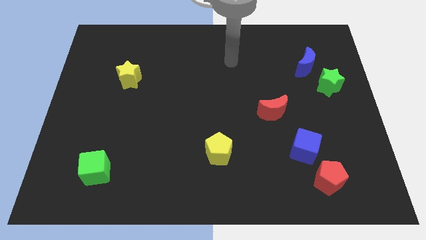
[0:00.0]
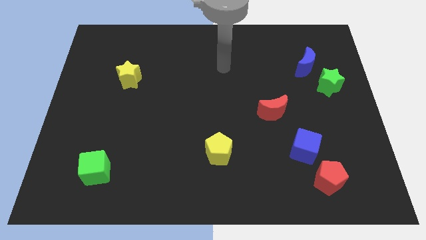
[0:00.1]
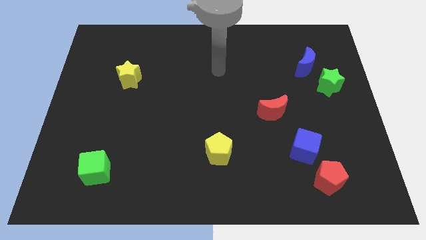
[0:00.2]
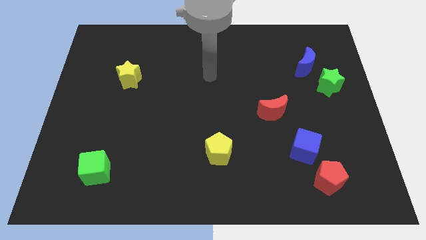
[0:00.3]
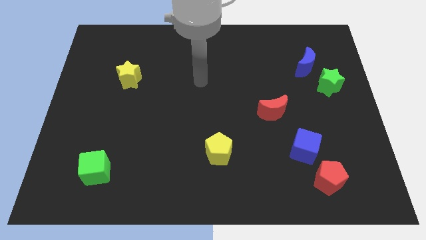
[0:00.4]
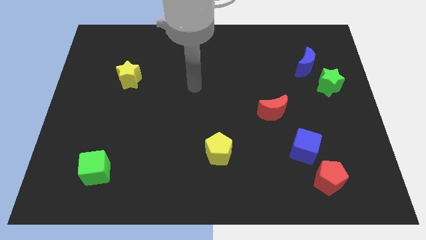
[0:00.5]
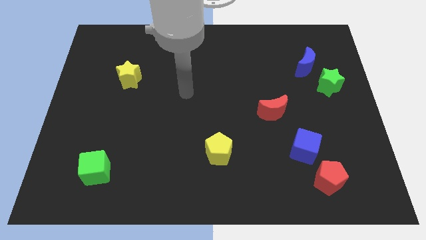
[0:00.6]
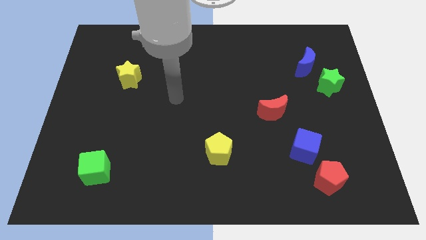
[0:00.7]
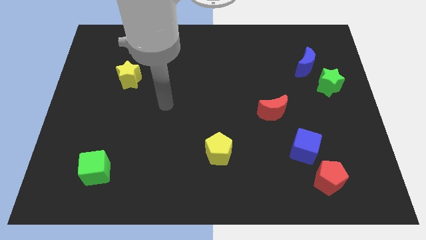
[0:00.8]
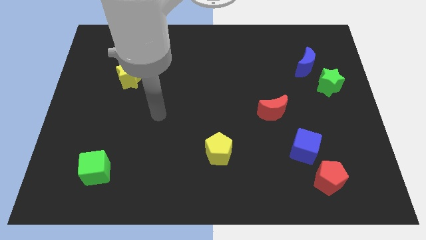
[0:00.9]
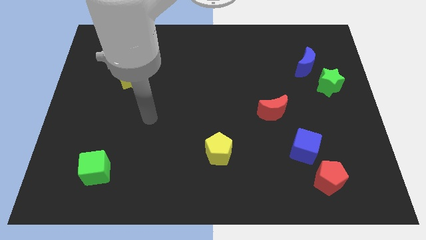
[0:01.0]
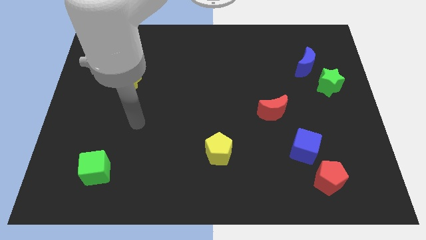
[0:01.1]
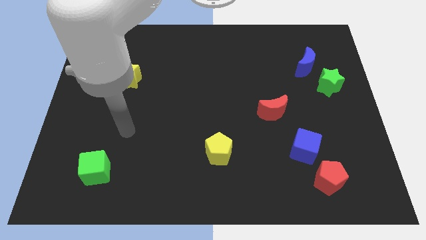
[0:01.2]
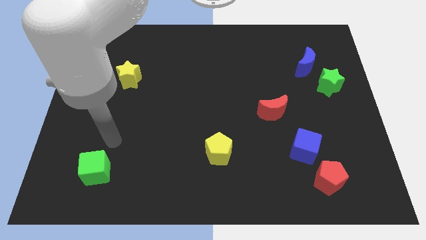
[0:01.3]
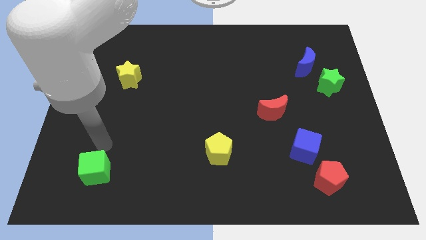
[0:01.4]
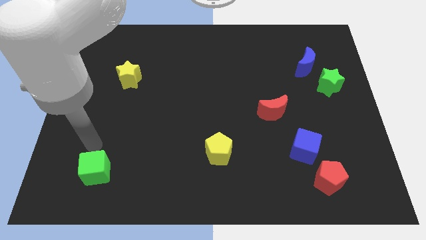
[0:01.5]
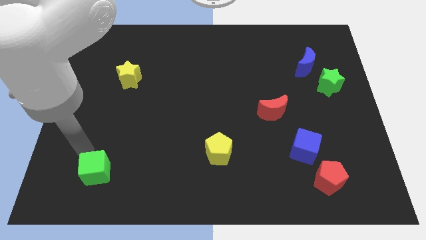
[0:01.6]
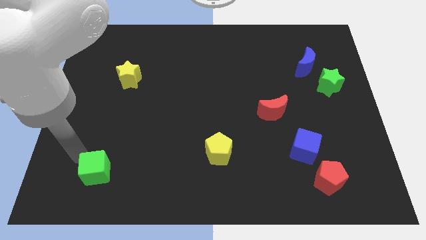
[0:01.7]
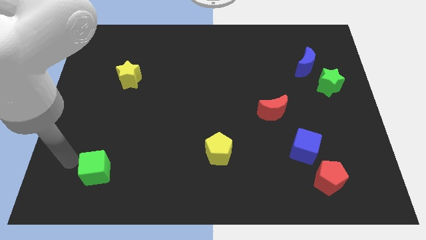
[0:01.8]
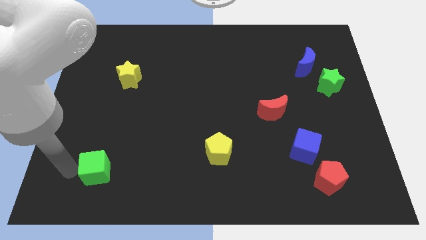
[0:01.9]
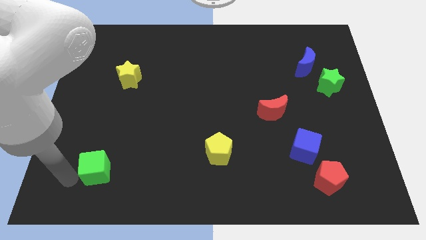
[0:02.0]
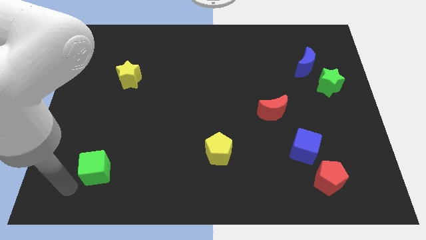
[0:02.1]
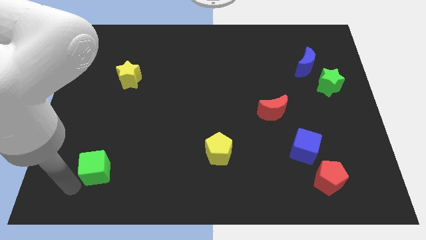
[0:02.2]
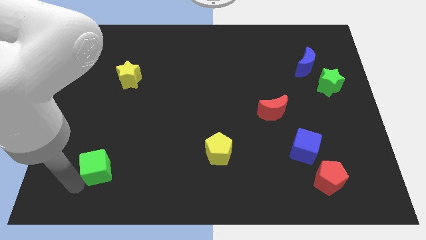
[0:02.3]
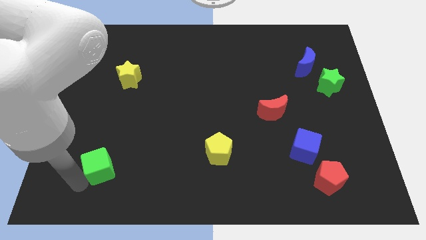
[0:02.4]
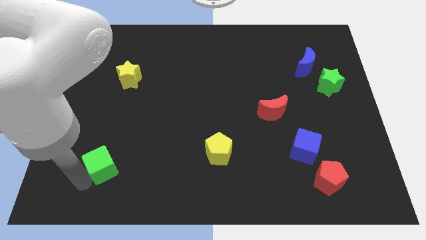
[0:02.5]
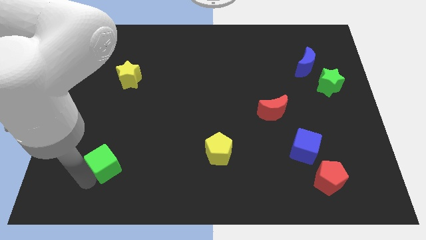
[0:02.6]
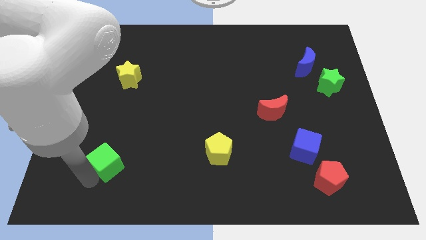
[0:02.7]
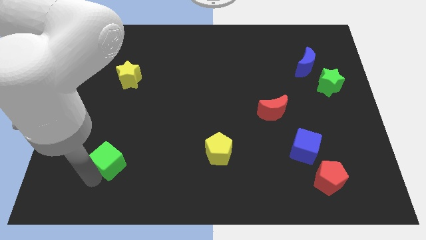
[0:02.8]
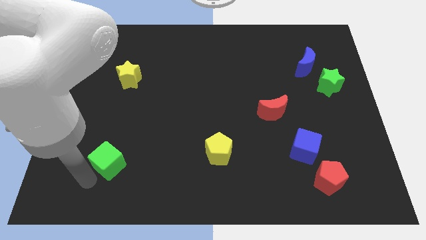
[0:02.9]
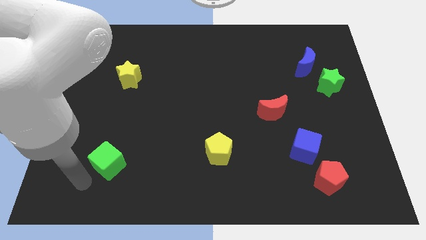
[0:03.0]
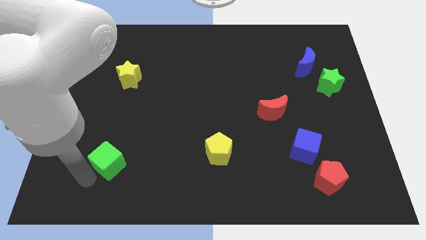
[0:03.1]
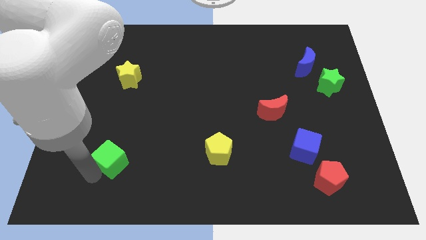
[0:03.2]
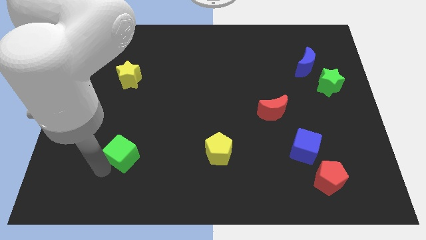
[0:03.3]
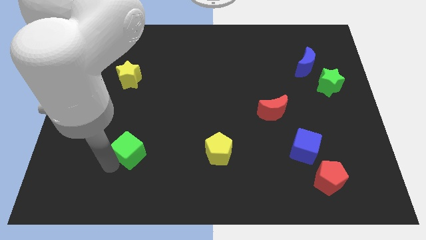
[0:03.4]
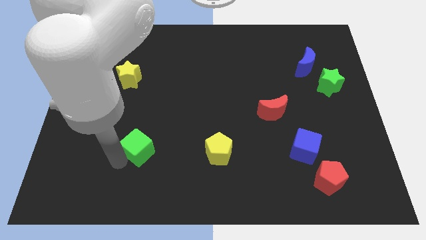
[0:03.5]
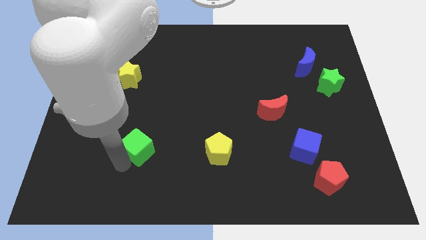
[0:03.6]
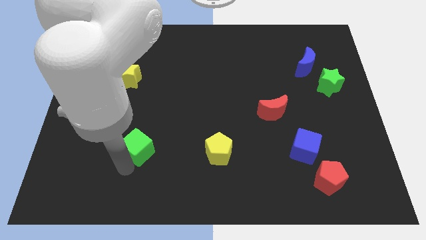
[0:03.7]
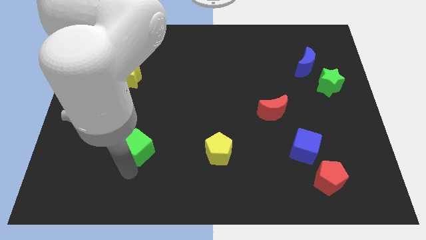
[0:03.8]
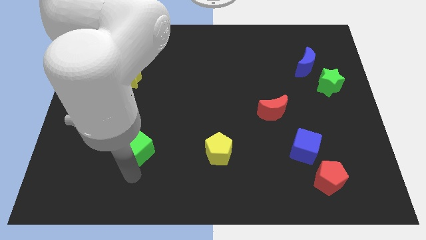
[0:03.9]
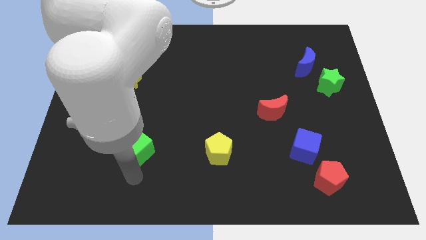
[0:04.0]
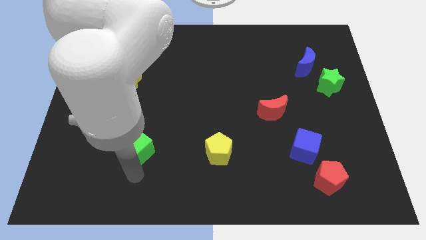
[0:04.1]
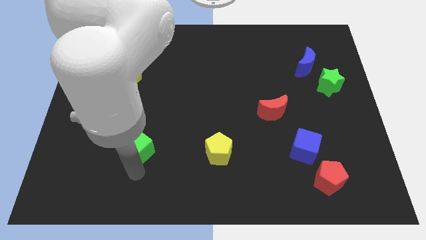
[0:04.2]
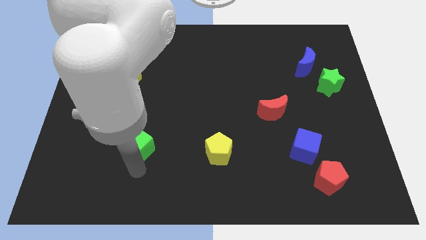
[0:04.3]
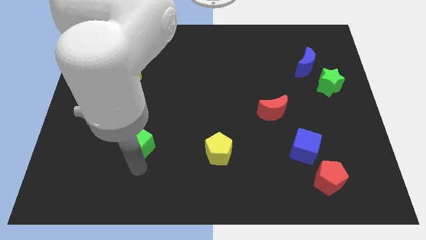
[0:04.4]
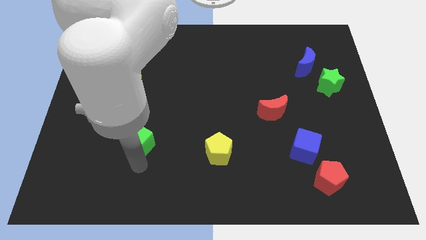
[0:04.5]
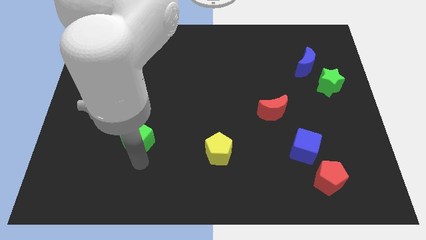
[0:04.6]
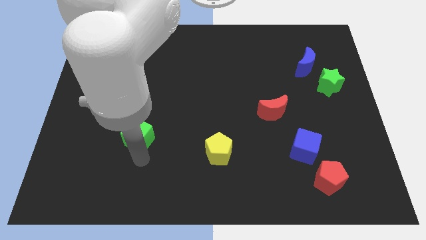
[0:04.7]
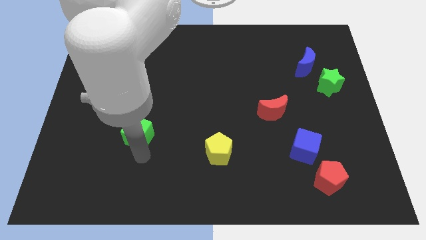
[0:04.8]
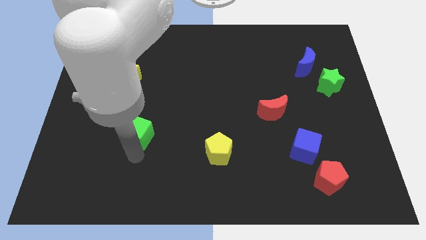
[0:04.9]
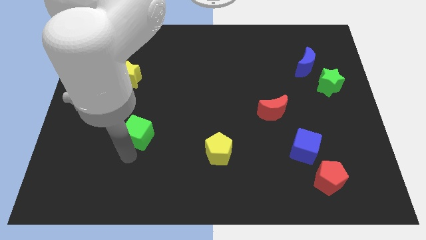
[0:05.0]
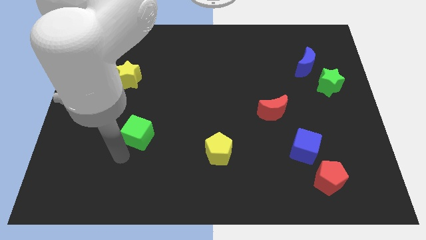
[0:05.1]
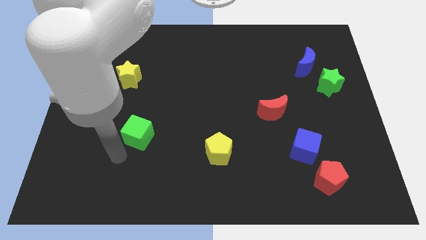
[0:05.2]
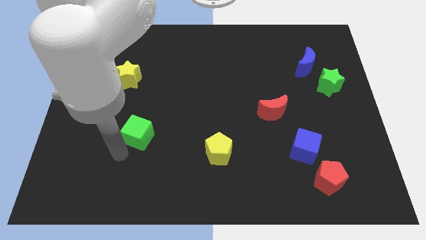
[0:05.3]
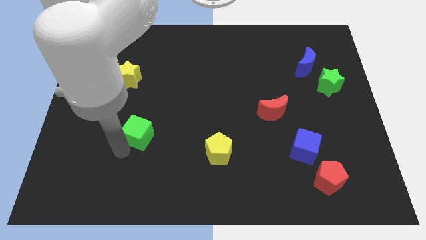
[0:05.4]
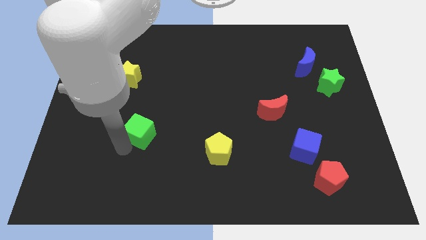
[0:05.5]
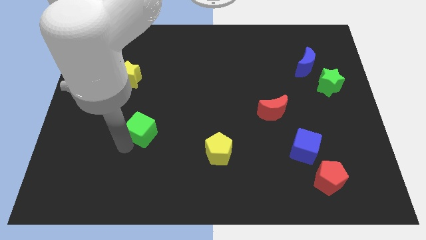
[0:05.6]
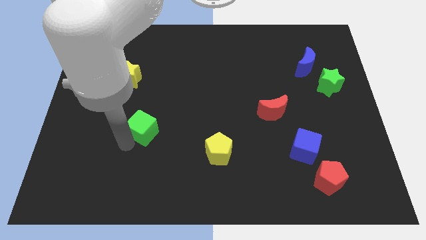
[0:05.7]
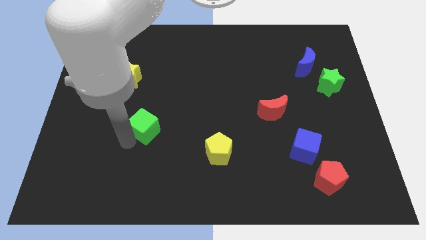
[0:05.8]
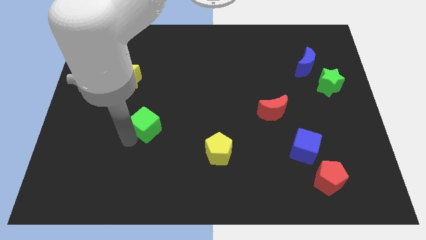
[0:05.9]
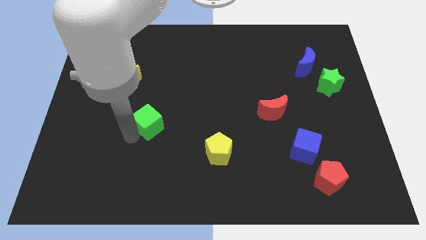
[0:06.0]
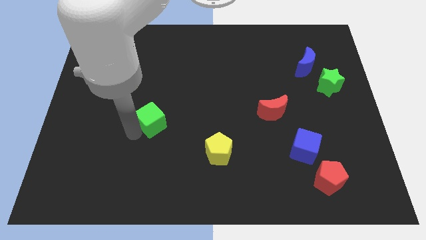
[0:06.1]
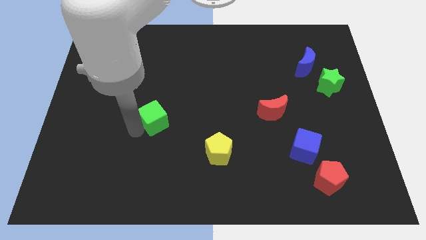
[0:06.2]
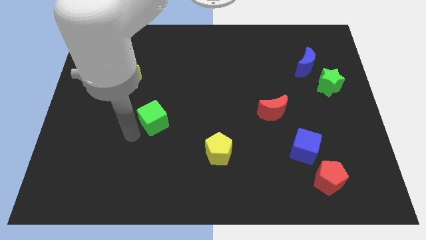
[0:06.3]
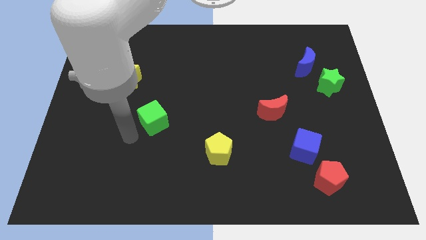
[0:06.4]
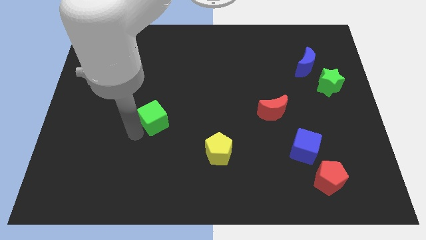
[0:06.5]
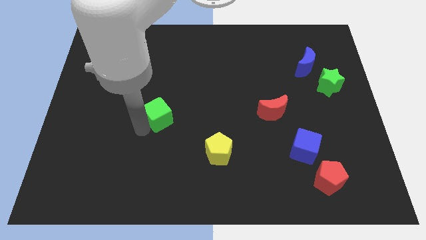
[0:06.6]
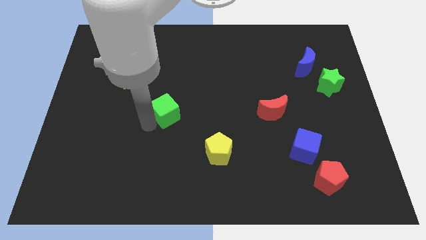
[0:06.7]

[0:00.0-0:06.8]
move the green cube diagonally up and right

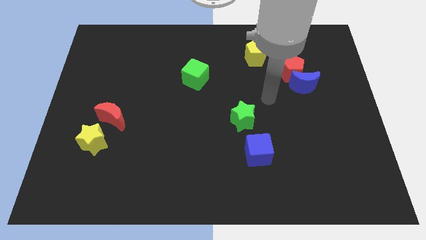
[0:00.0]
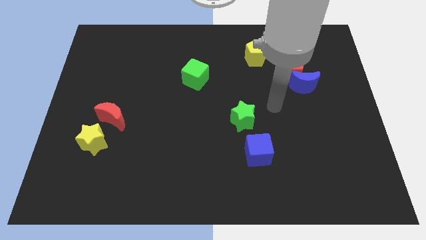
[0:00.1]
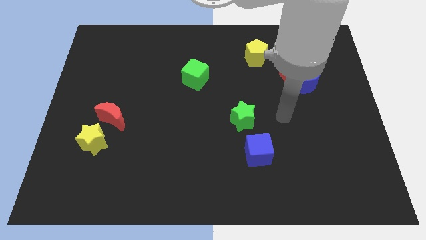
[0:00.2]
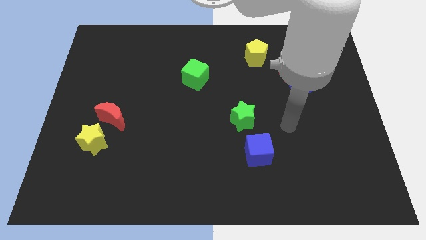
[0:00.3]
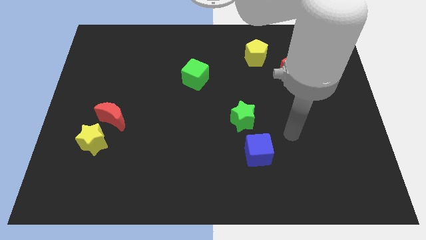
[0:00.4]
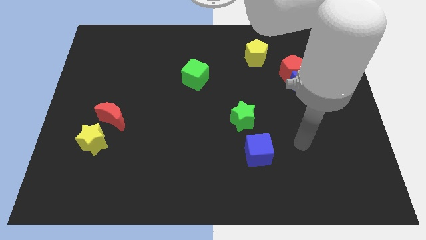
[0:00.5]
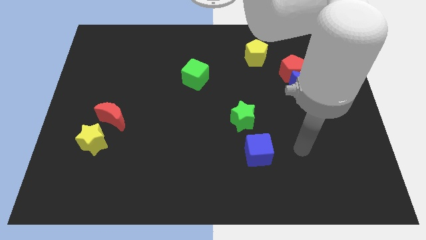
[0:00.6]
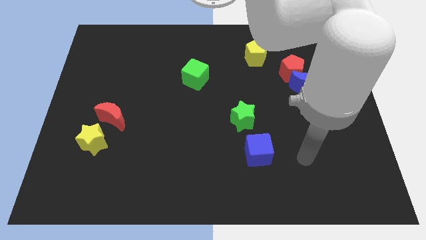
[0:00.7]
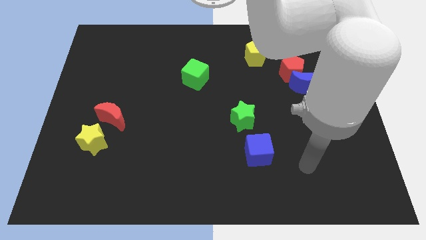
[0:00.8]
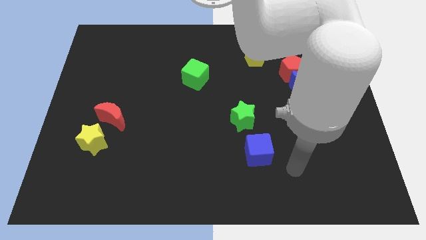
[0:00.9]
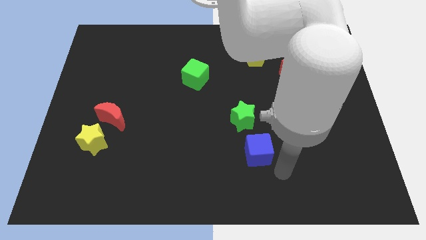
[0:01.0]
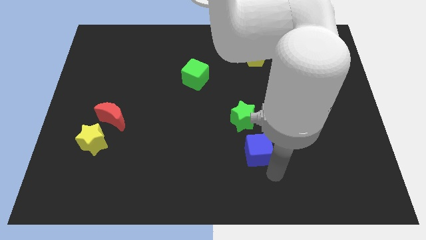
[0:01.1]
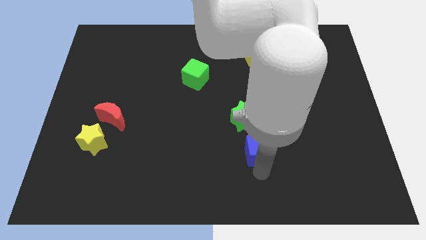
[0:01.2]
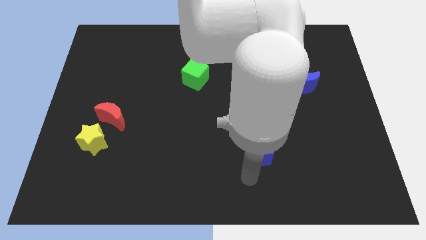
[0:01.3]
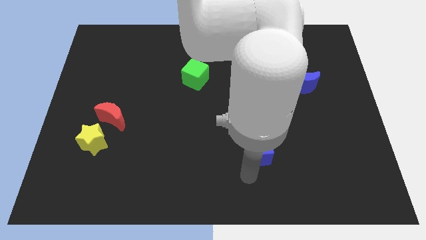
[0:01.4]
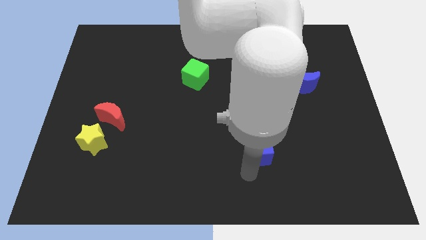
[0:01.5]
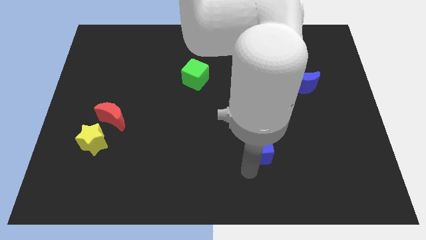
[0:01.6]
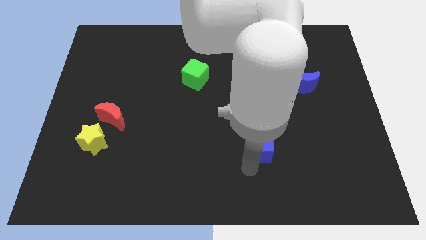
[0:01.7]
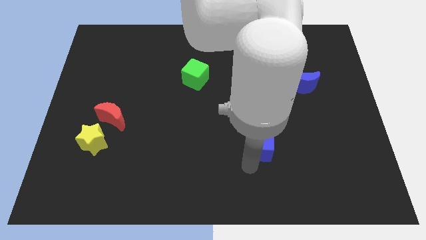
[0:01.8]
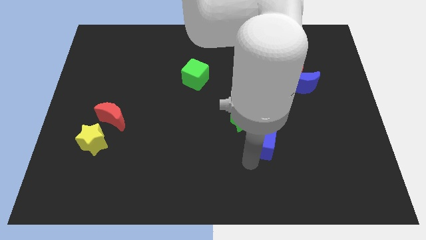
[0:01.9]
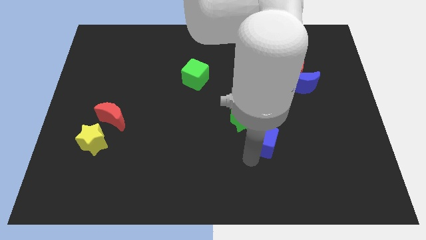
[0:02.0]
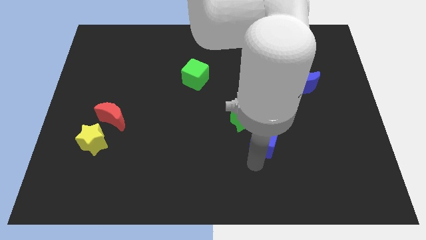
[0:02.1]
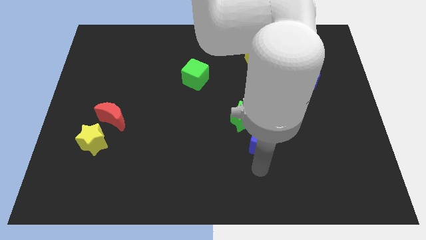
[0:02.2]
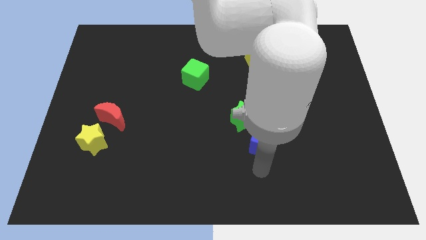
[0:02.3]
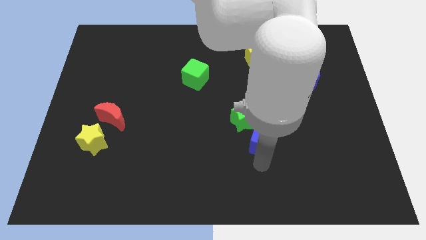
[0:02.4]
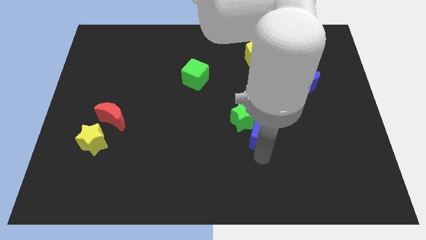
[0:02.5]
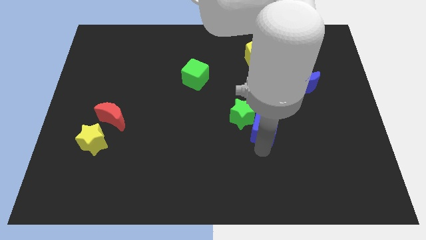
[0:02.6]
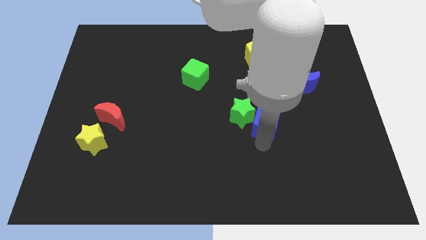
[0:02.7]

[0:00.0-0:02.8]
slightly slide the blue cube upwards
